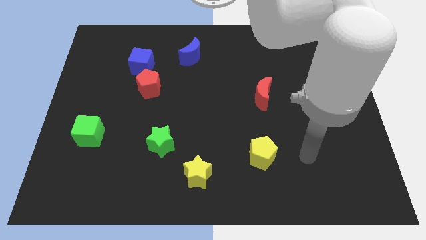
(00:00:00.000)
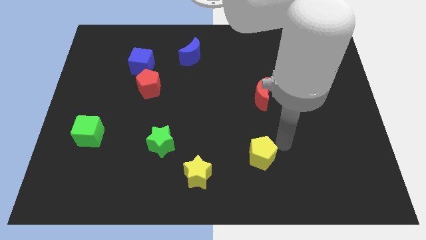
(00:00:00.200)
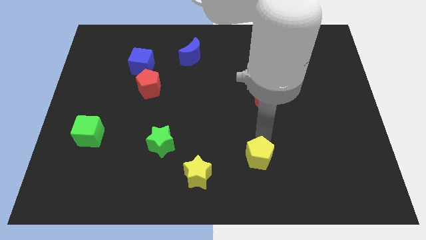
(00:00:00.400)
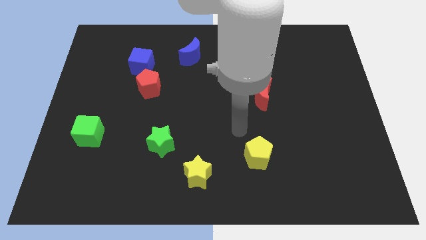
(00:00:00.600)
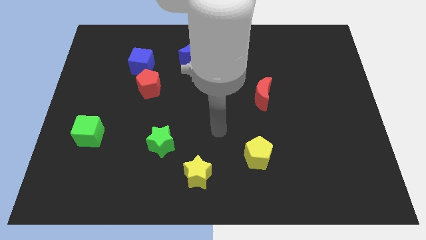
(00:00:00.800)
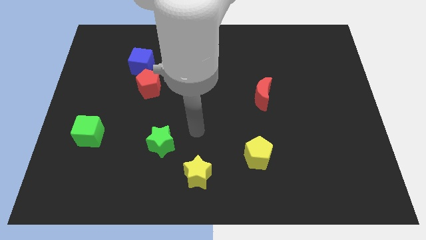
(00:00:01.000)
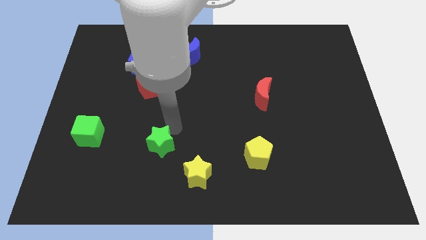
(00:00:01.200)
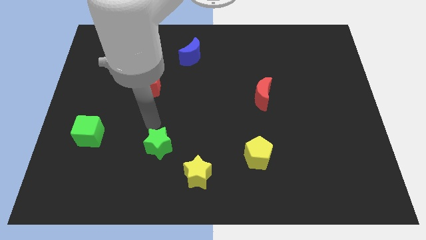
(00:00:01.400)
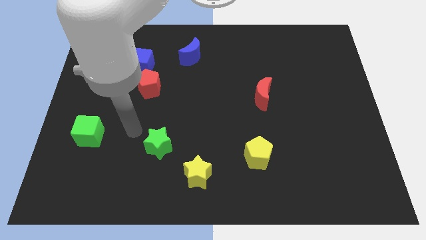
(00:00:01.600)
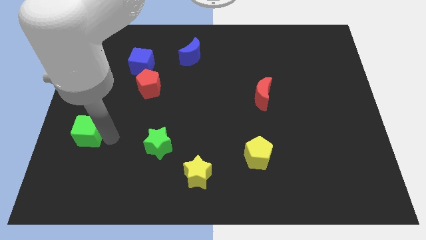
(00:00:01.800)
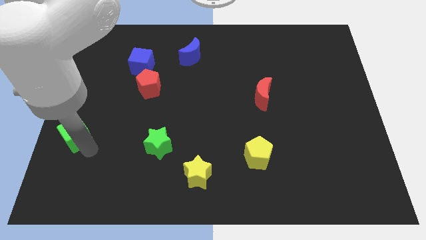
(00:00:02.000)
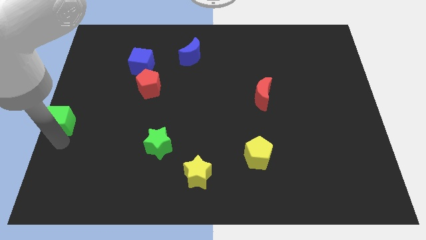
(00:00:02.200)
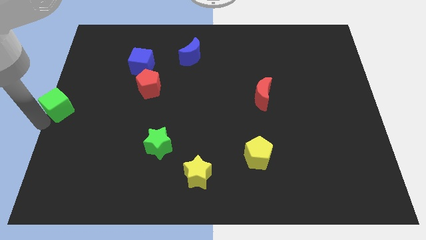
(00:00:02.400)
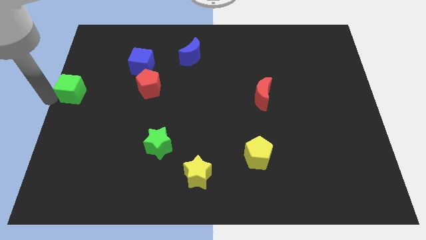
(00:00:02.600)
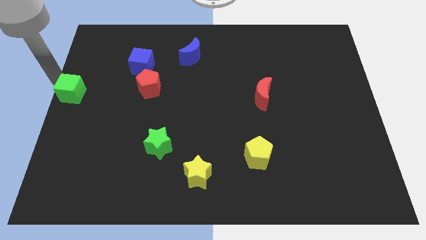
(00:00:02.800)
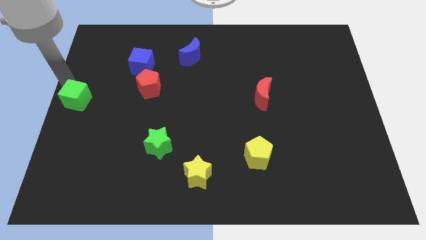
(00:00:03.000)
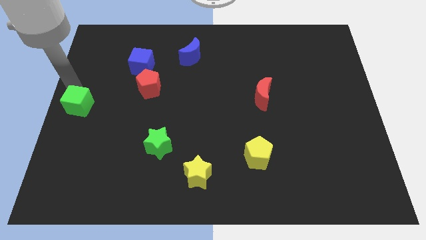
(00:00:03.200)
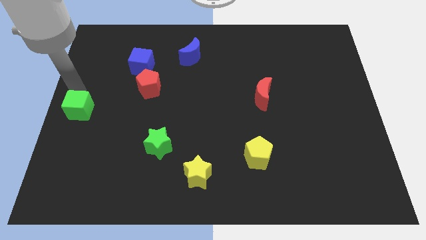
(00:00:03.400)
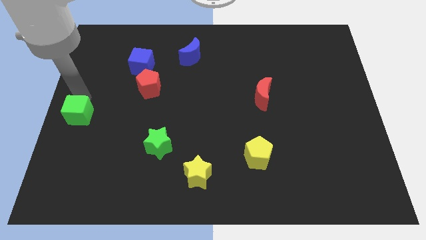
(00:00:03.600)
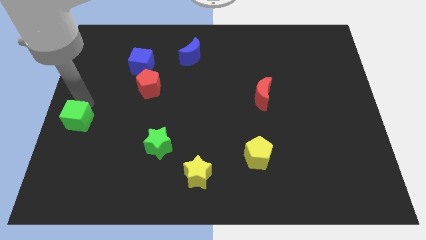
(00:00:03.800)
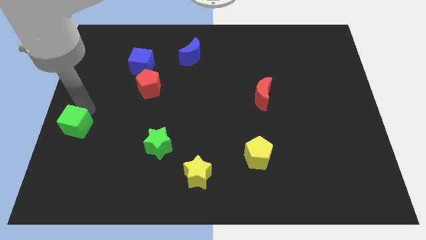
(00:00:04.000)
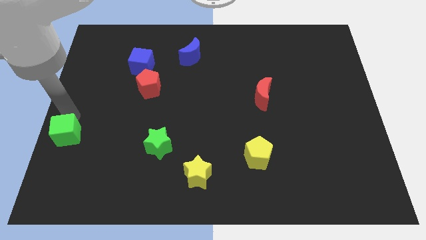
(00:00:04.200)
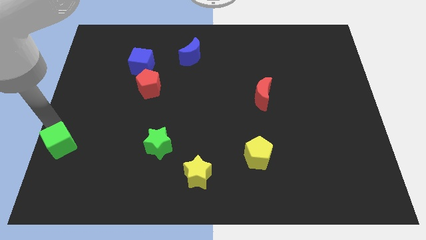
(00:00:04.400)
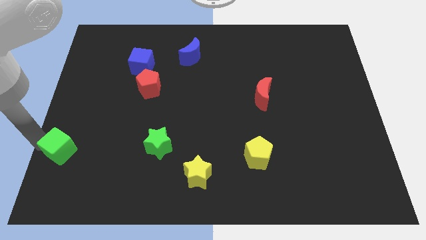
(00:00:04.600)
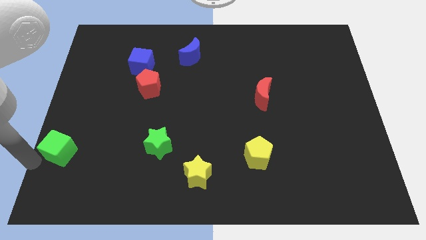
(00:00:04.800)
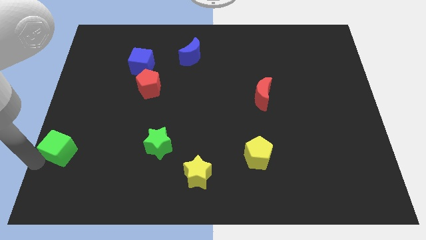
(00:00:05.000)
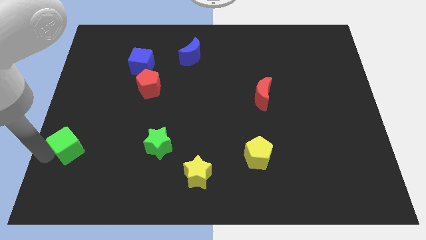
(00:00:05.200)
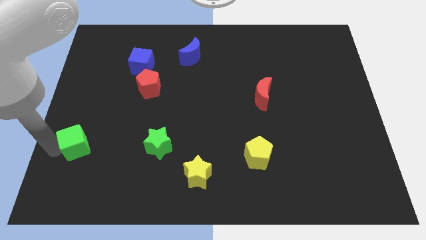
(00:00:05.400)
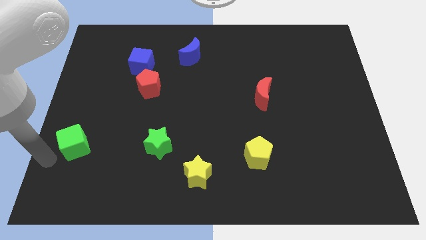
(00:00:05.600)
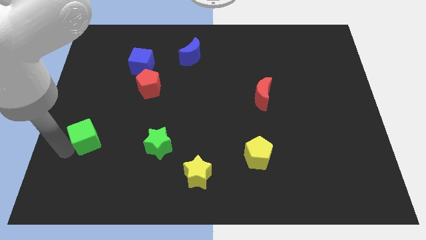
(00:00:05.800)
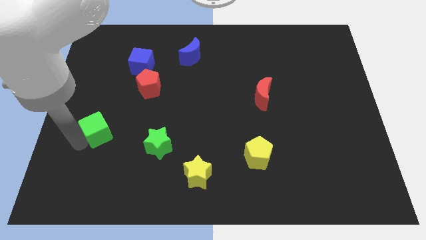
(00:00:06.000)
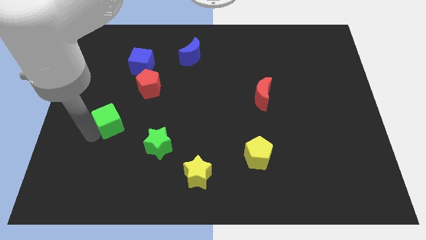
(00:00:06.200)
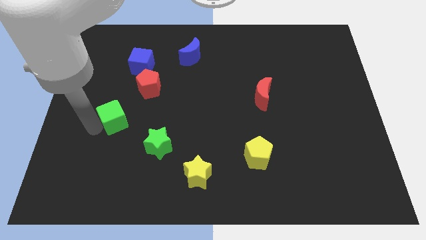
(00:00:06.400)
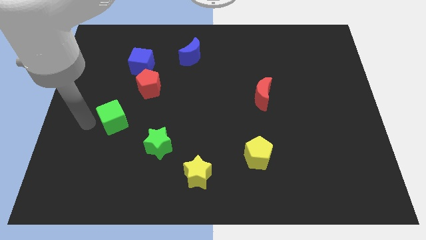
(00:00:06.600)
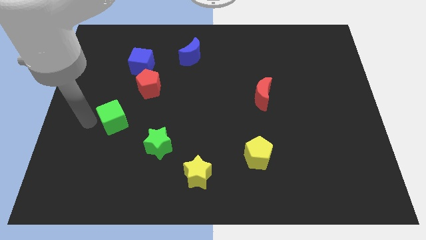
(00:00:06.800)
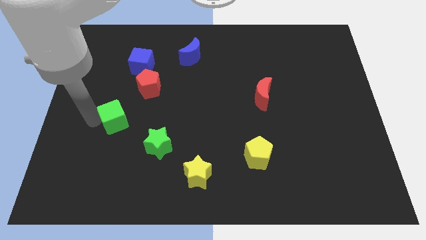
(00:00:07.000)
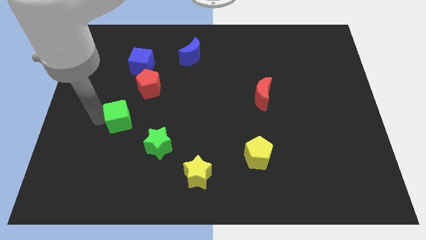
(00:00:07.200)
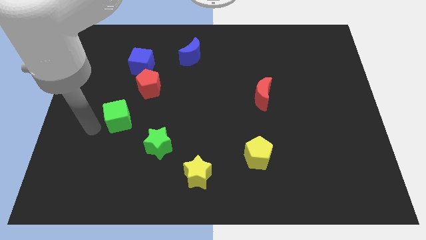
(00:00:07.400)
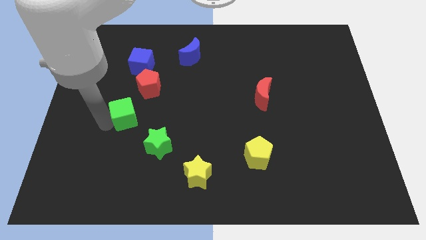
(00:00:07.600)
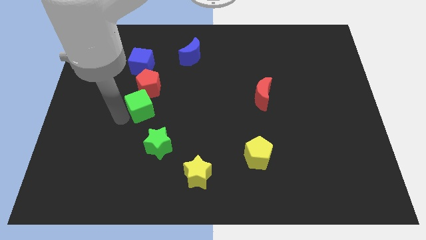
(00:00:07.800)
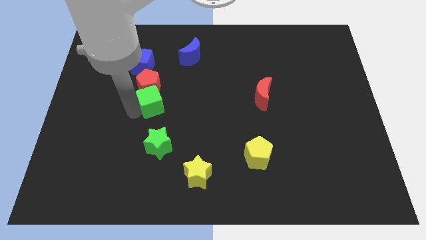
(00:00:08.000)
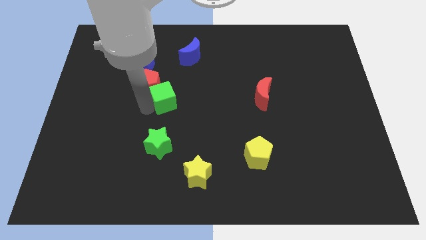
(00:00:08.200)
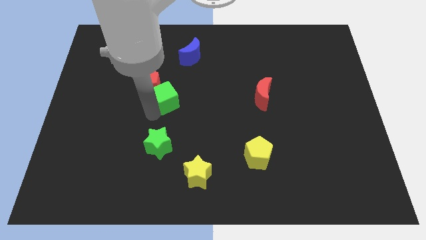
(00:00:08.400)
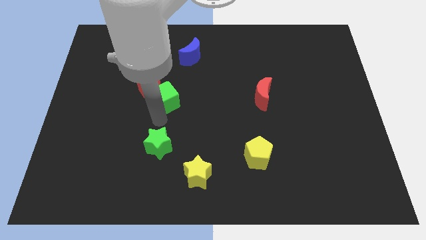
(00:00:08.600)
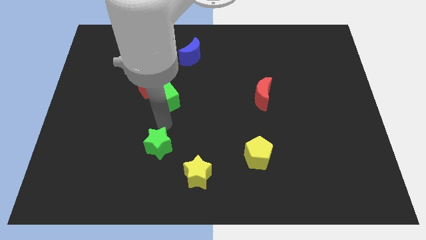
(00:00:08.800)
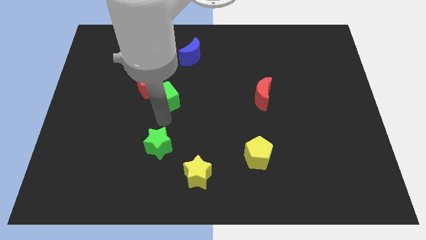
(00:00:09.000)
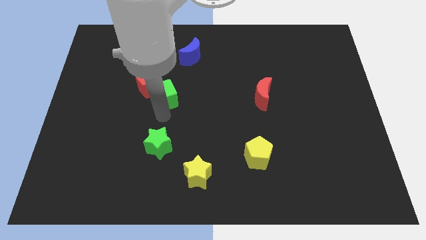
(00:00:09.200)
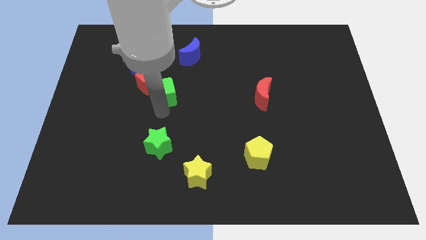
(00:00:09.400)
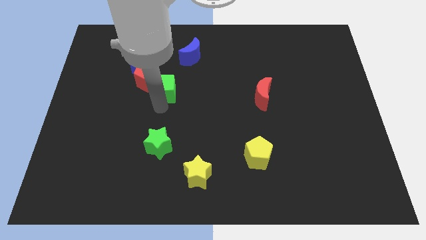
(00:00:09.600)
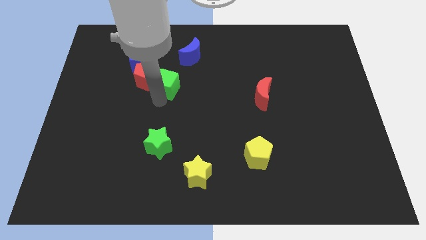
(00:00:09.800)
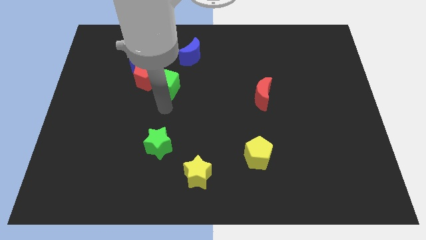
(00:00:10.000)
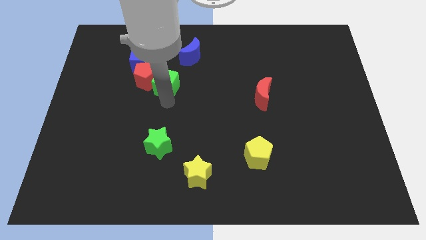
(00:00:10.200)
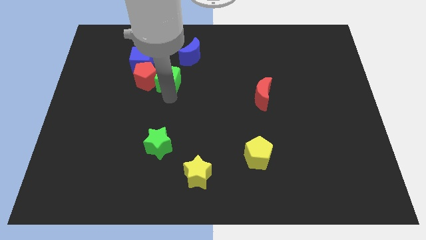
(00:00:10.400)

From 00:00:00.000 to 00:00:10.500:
push the green cube diagonally up and to the right of the red pentagon

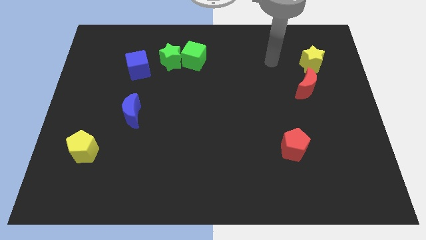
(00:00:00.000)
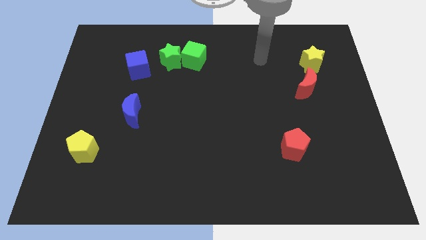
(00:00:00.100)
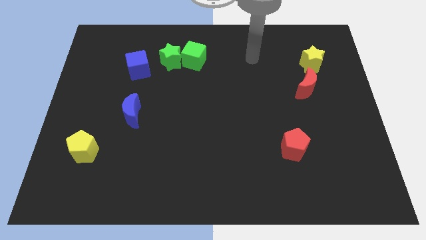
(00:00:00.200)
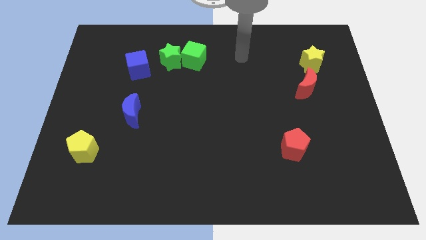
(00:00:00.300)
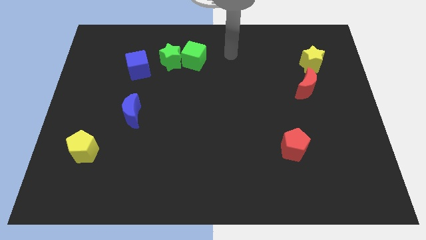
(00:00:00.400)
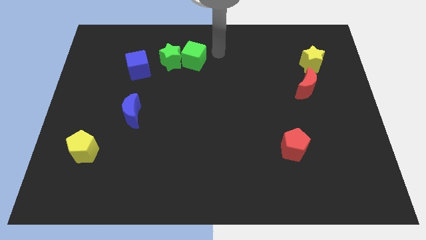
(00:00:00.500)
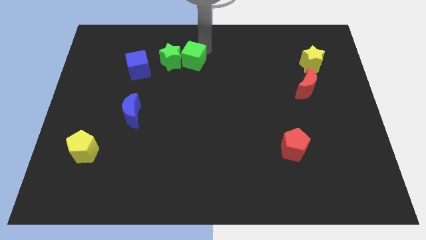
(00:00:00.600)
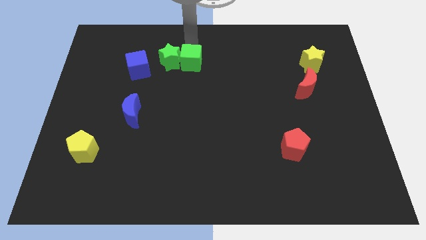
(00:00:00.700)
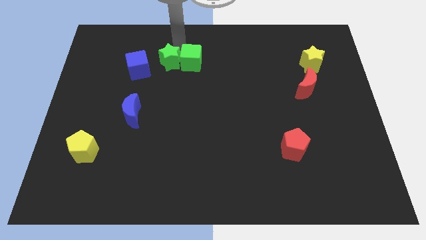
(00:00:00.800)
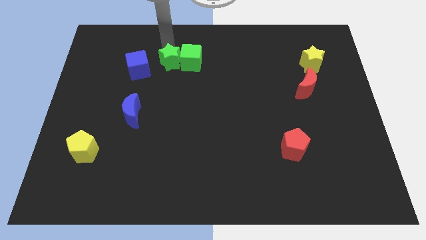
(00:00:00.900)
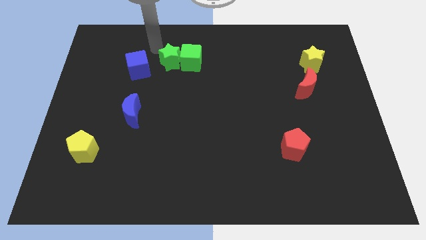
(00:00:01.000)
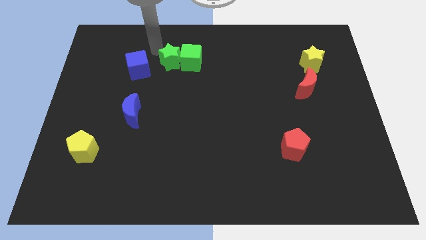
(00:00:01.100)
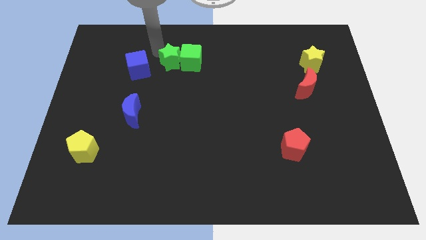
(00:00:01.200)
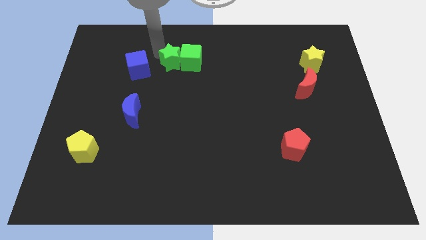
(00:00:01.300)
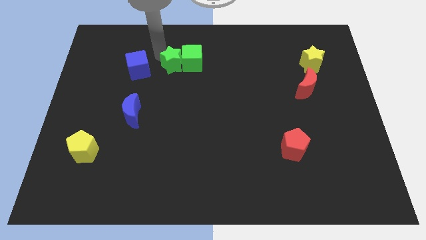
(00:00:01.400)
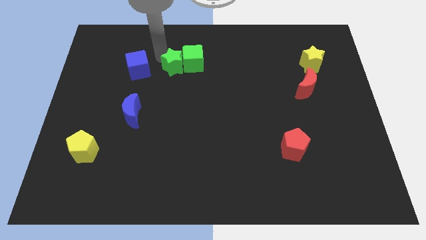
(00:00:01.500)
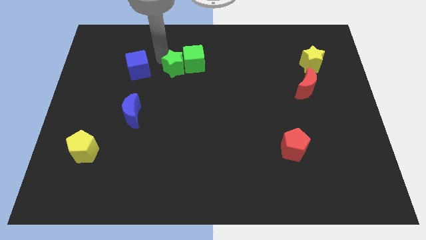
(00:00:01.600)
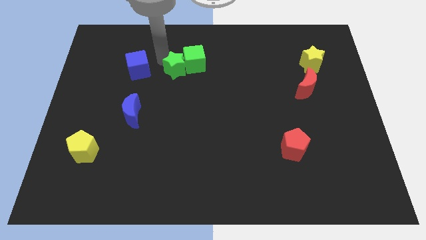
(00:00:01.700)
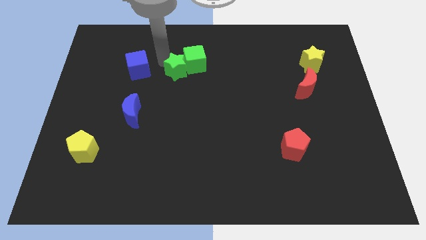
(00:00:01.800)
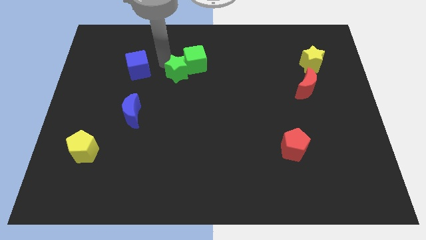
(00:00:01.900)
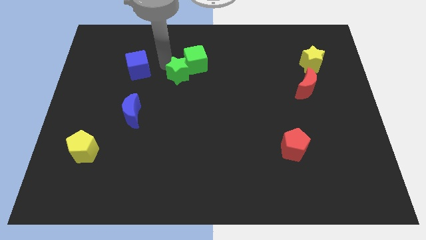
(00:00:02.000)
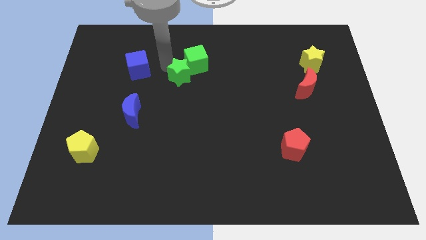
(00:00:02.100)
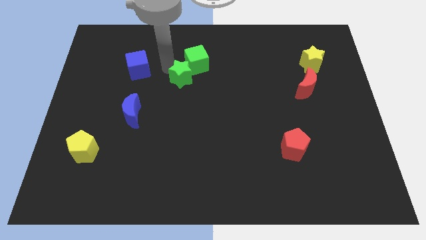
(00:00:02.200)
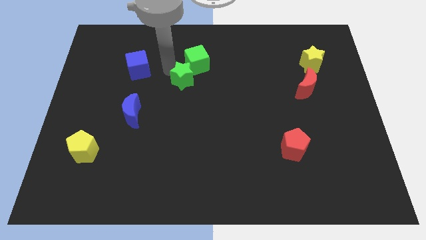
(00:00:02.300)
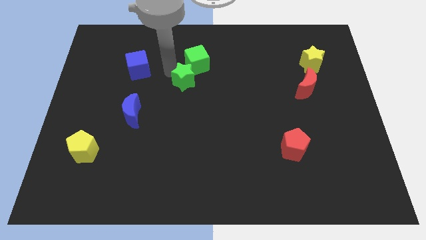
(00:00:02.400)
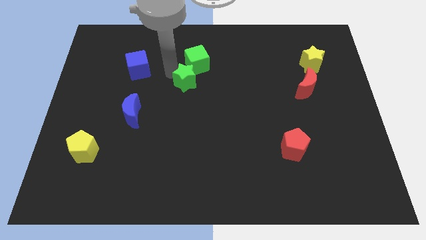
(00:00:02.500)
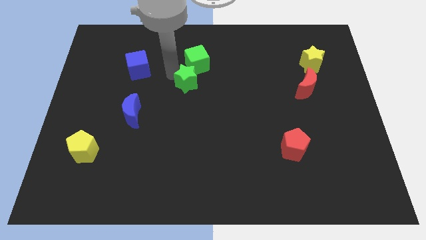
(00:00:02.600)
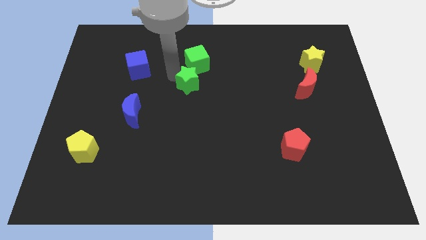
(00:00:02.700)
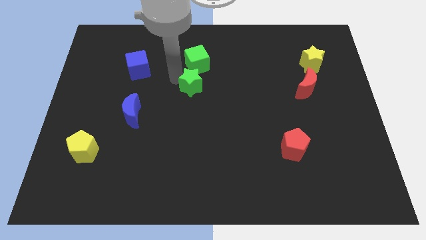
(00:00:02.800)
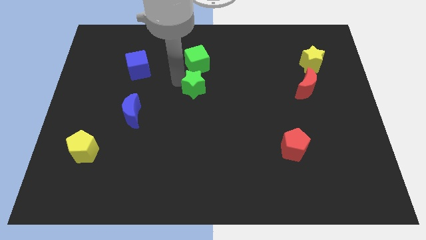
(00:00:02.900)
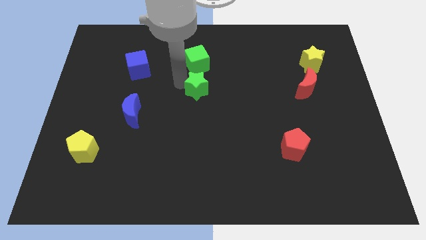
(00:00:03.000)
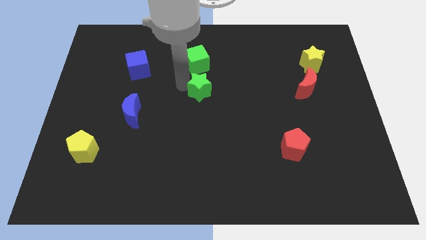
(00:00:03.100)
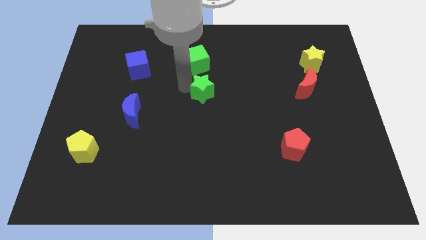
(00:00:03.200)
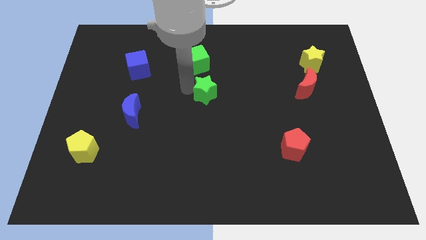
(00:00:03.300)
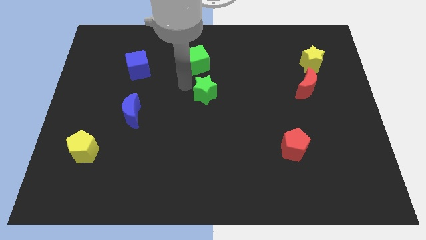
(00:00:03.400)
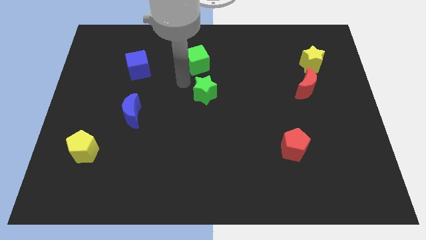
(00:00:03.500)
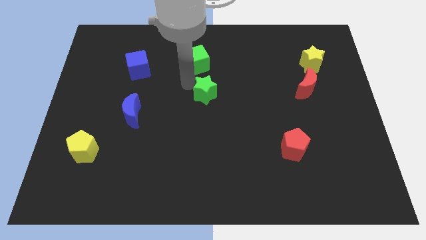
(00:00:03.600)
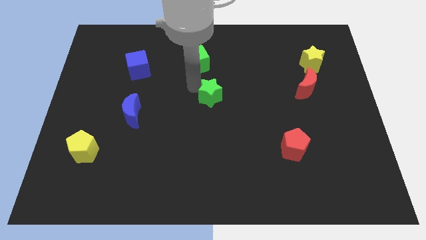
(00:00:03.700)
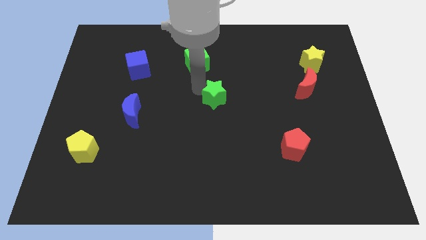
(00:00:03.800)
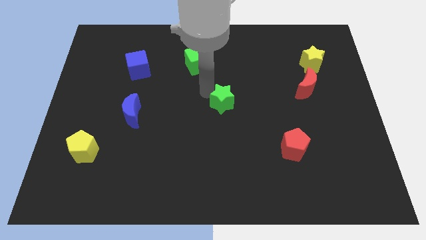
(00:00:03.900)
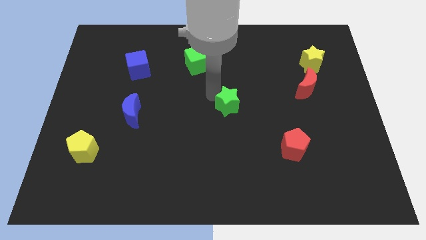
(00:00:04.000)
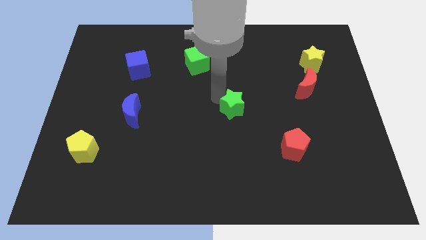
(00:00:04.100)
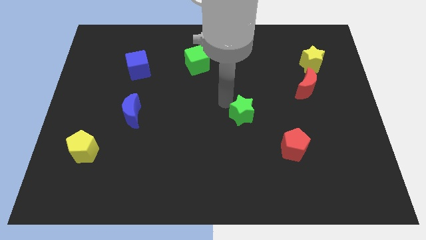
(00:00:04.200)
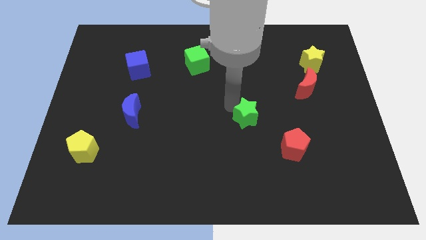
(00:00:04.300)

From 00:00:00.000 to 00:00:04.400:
push the green star diagonally up and to the left of the red pentagon
